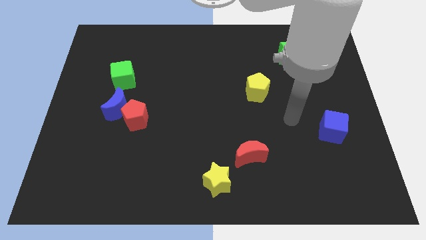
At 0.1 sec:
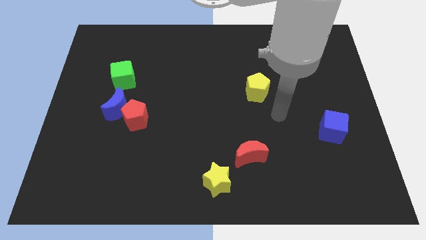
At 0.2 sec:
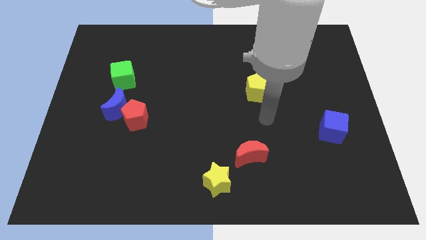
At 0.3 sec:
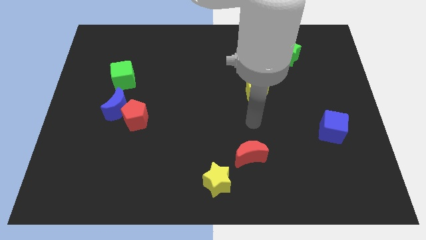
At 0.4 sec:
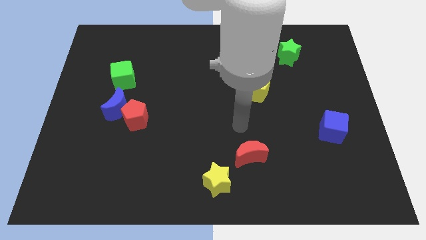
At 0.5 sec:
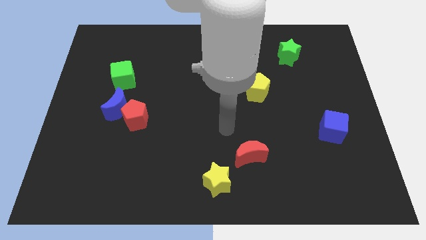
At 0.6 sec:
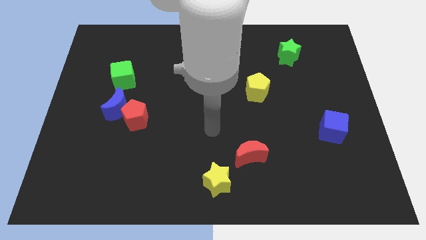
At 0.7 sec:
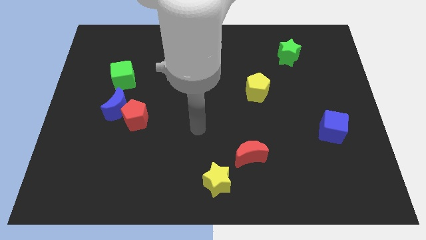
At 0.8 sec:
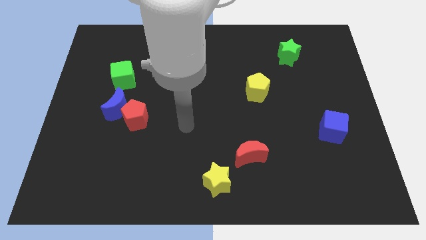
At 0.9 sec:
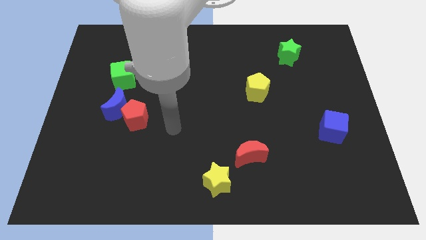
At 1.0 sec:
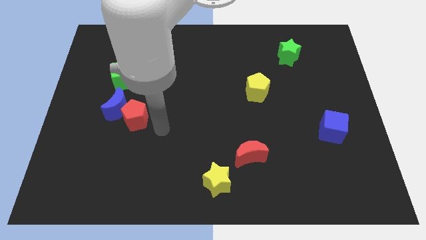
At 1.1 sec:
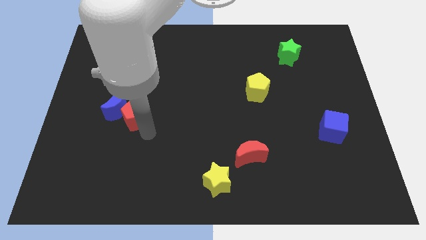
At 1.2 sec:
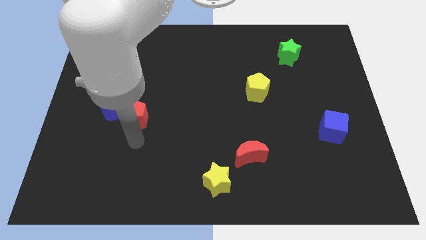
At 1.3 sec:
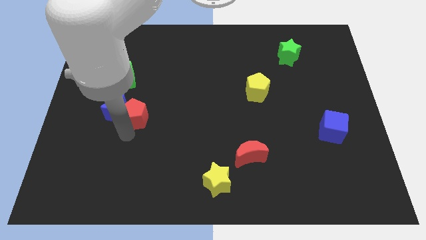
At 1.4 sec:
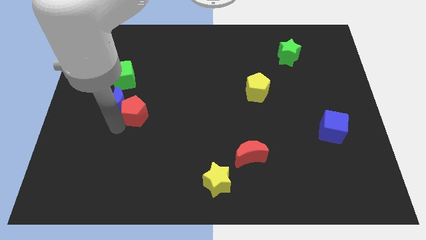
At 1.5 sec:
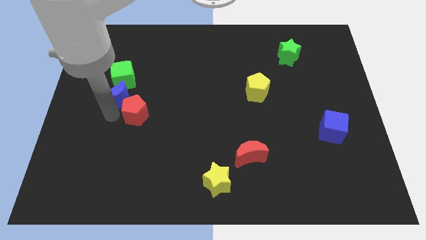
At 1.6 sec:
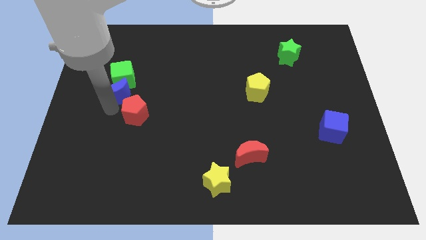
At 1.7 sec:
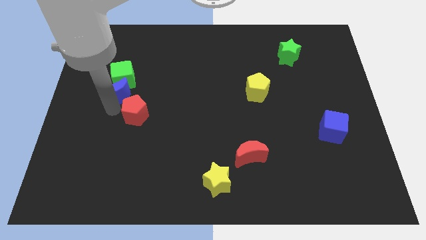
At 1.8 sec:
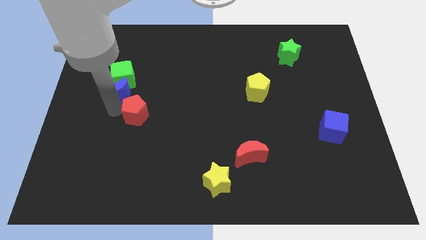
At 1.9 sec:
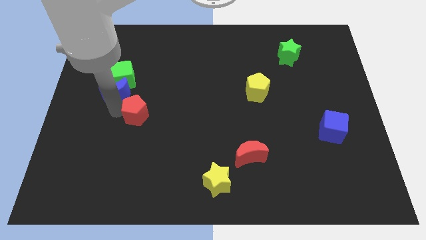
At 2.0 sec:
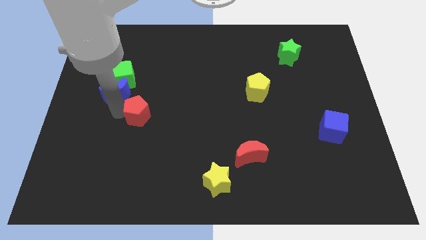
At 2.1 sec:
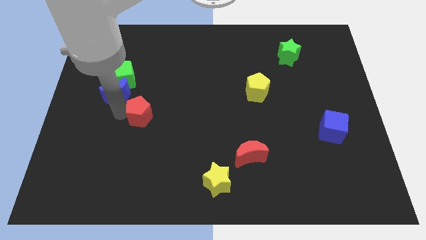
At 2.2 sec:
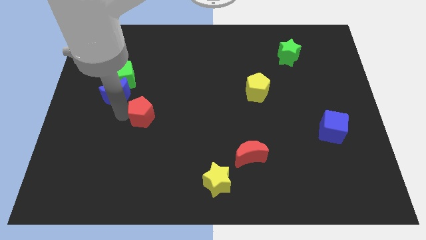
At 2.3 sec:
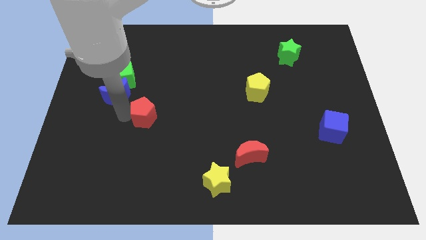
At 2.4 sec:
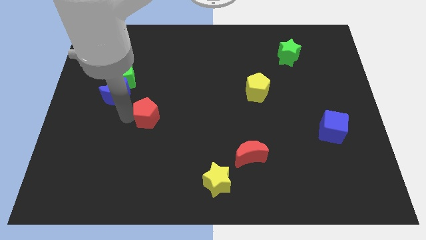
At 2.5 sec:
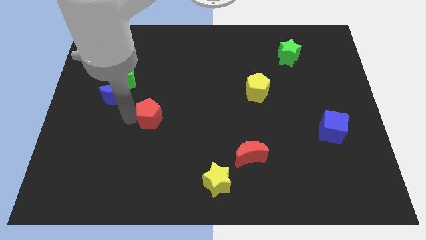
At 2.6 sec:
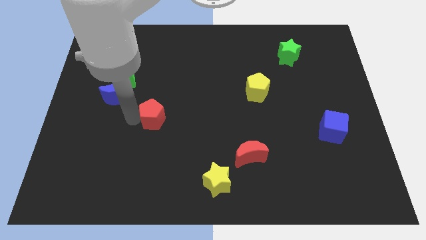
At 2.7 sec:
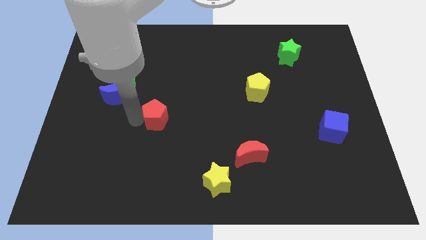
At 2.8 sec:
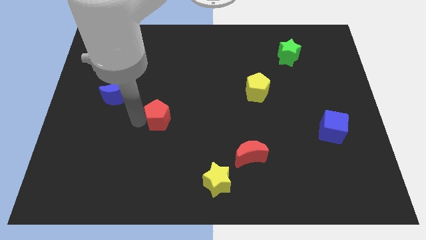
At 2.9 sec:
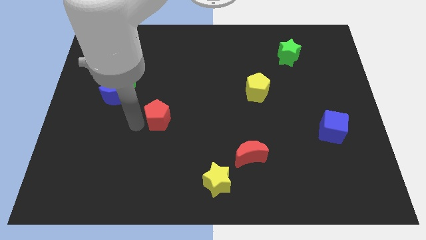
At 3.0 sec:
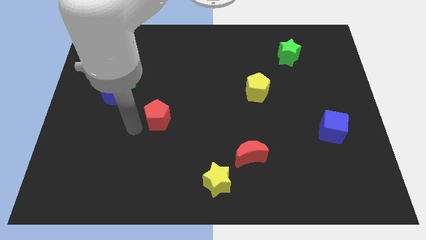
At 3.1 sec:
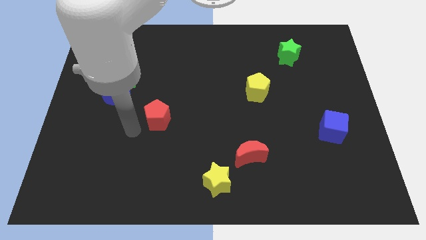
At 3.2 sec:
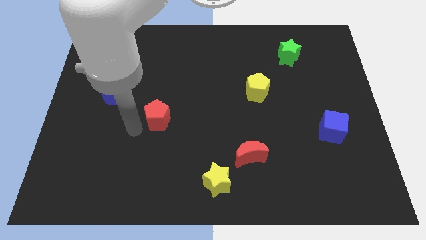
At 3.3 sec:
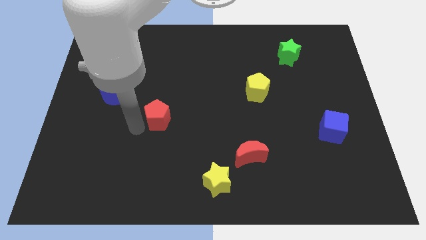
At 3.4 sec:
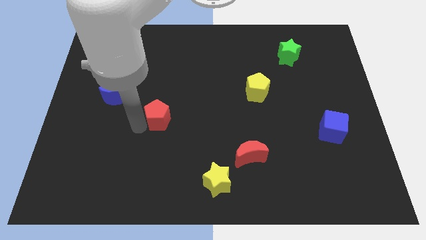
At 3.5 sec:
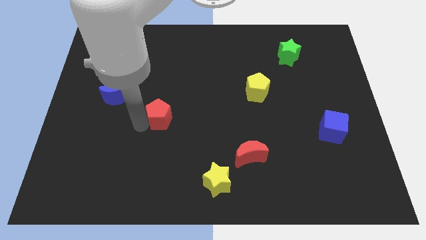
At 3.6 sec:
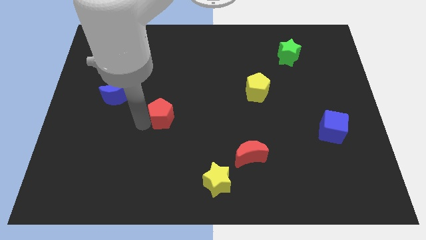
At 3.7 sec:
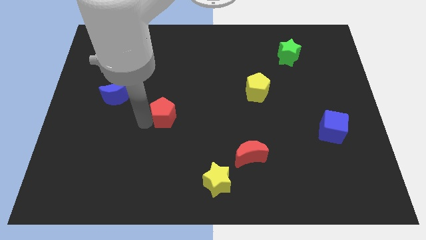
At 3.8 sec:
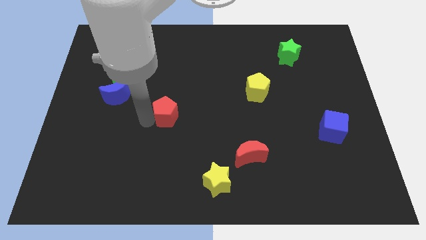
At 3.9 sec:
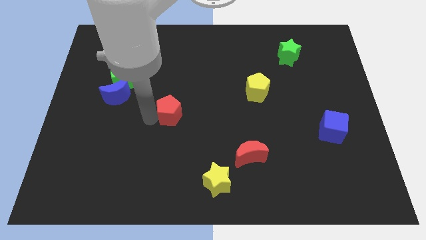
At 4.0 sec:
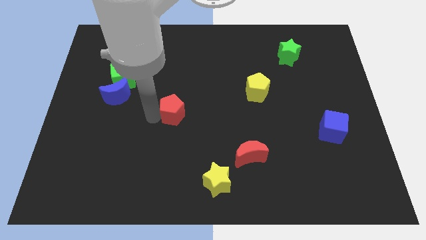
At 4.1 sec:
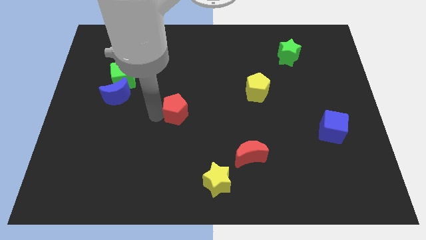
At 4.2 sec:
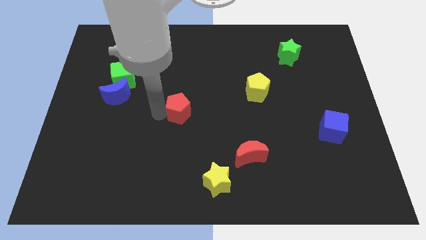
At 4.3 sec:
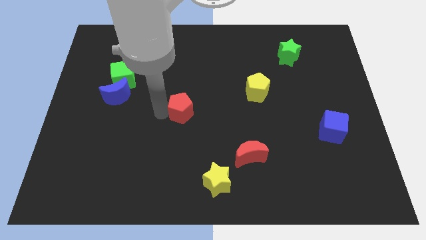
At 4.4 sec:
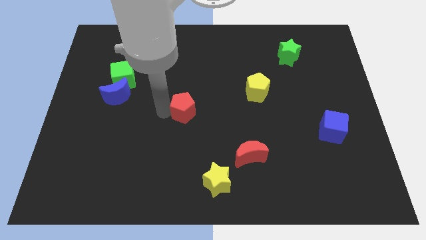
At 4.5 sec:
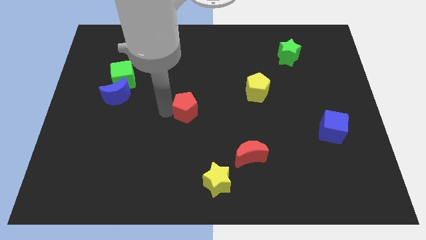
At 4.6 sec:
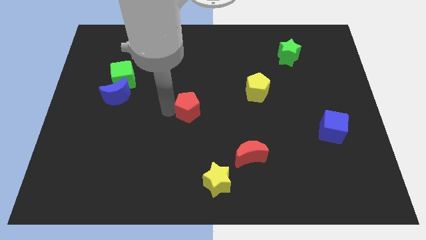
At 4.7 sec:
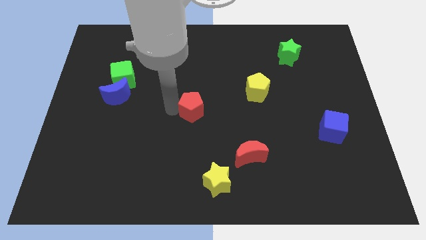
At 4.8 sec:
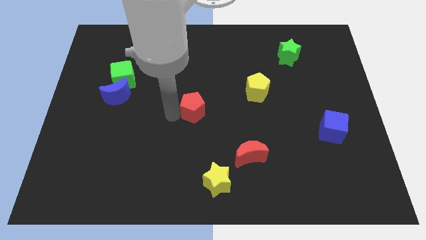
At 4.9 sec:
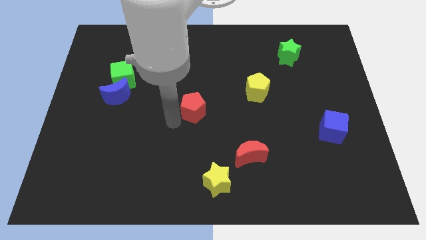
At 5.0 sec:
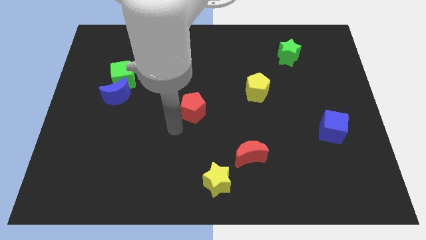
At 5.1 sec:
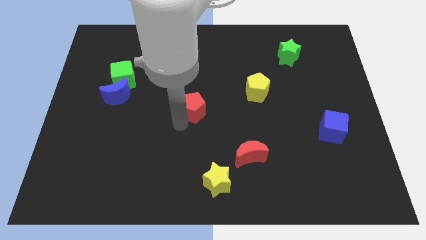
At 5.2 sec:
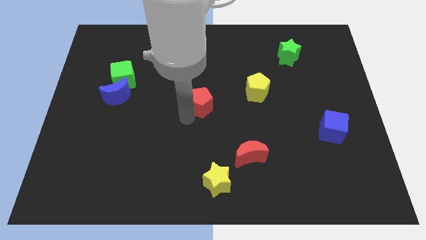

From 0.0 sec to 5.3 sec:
slide the red pentagon to the left of the yellow pentagon

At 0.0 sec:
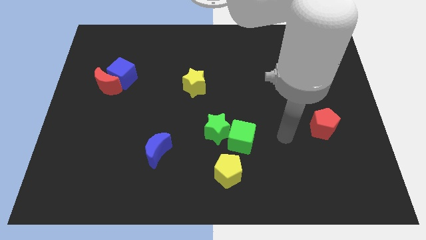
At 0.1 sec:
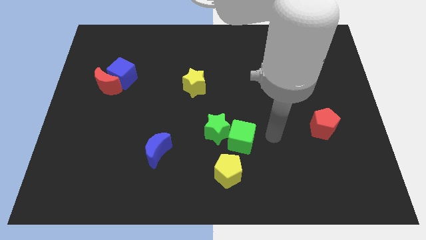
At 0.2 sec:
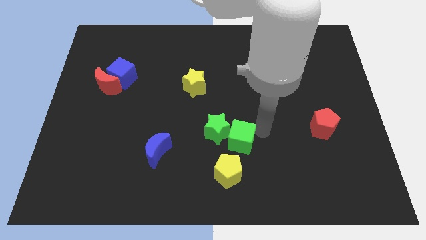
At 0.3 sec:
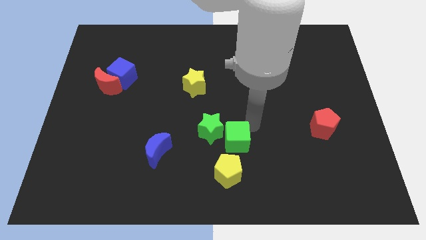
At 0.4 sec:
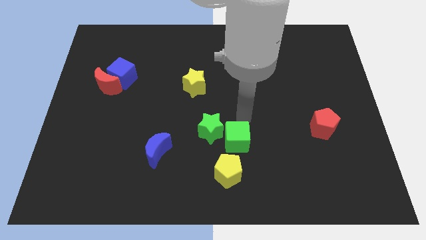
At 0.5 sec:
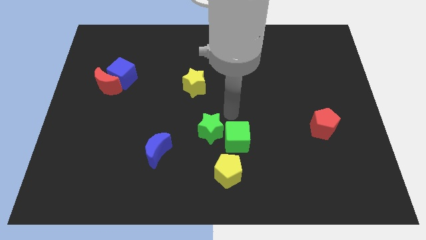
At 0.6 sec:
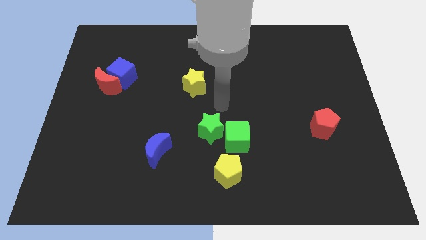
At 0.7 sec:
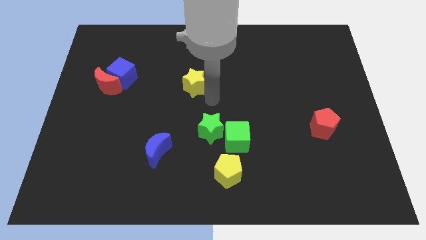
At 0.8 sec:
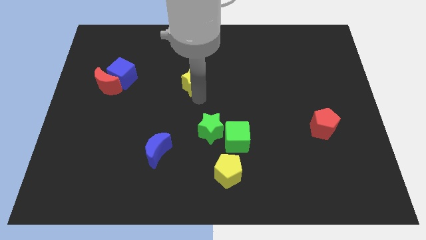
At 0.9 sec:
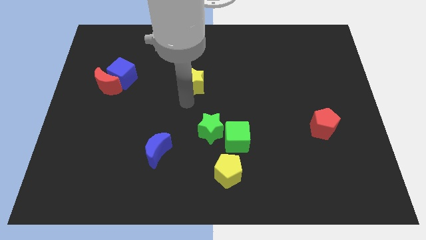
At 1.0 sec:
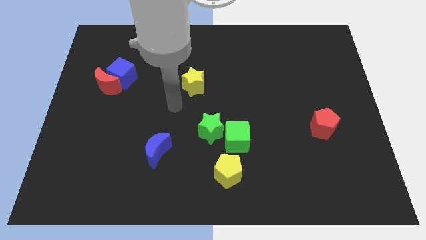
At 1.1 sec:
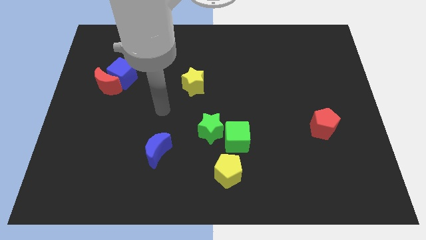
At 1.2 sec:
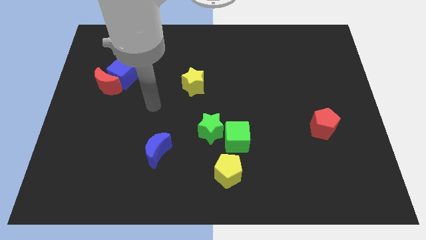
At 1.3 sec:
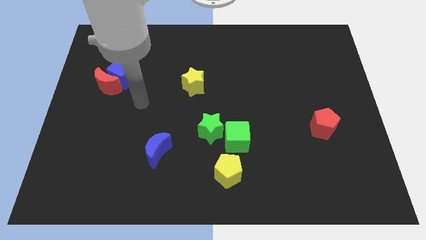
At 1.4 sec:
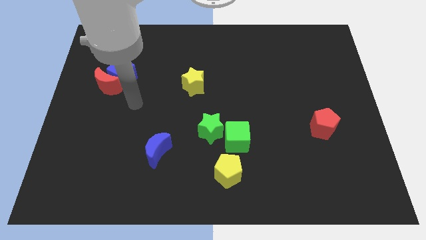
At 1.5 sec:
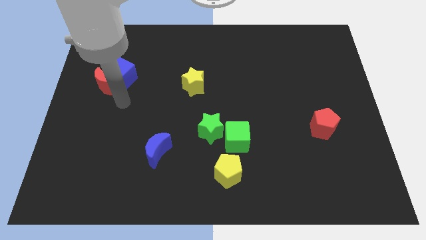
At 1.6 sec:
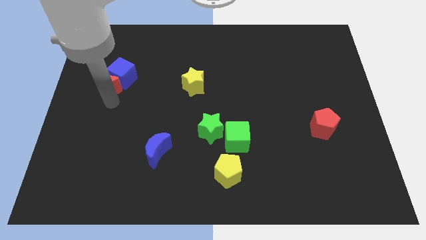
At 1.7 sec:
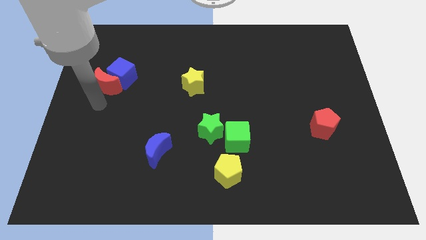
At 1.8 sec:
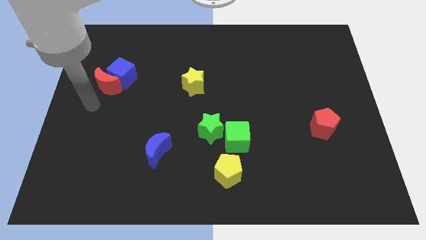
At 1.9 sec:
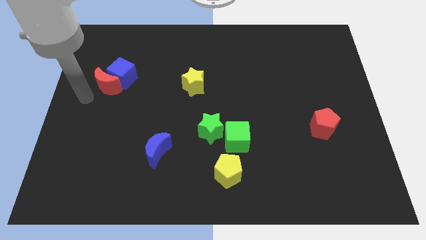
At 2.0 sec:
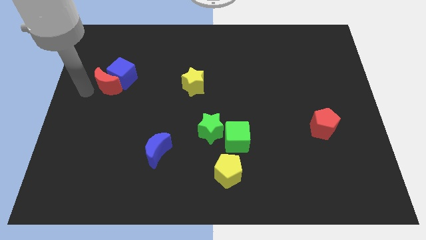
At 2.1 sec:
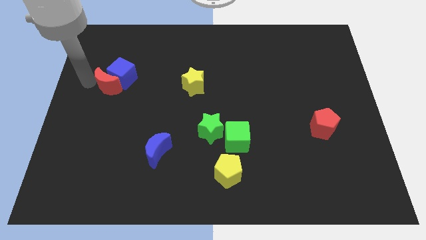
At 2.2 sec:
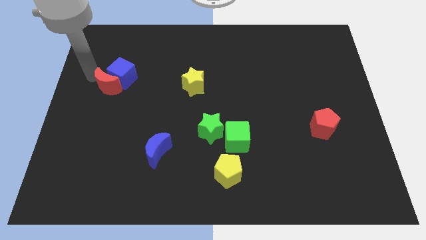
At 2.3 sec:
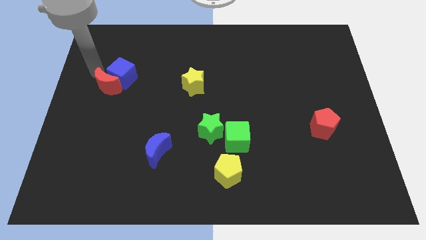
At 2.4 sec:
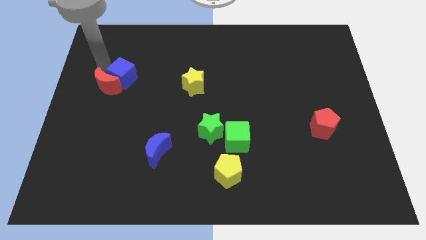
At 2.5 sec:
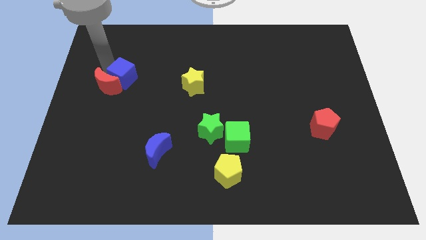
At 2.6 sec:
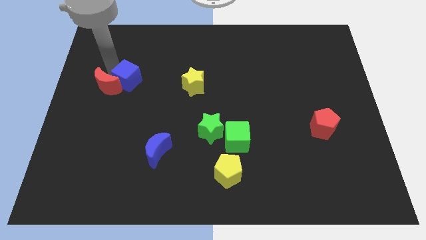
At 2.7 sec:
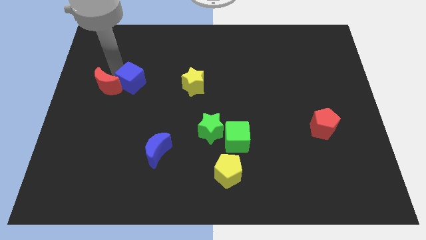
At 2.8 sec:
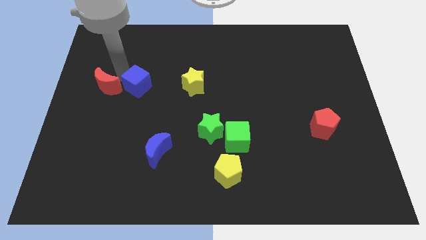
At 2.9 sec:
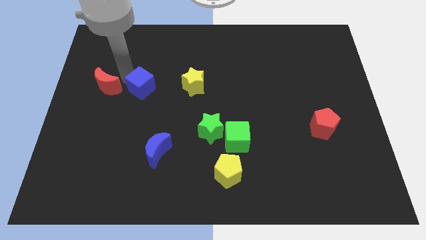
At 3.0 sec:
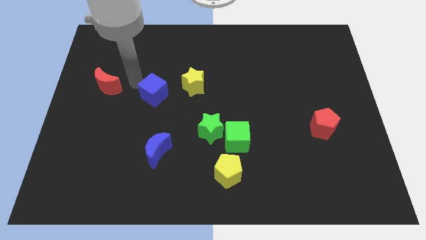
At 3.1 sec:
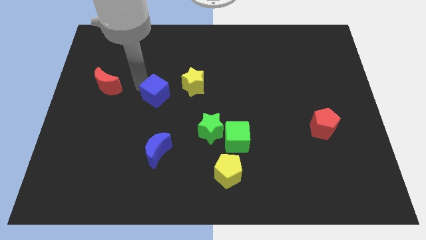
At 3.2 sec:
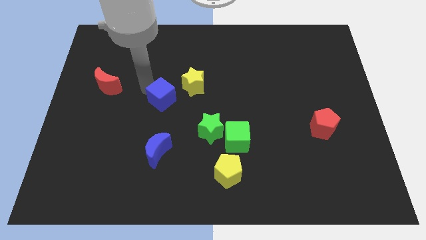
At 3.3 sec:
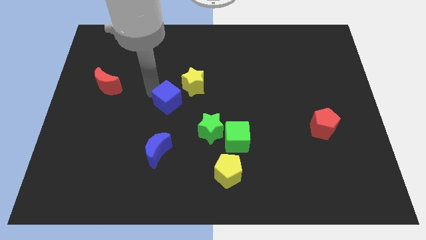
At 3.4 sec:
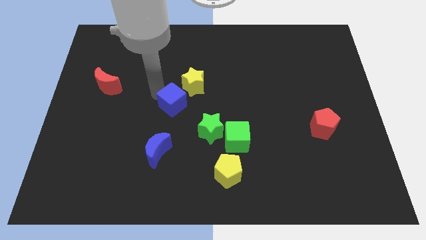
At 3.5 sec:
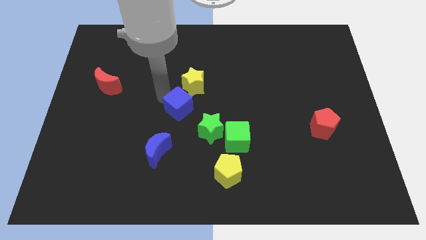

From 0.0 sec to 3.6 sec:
move the blue cube to the bottom side of the yellow star
